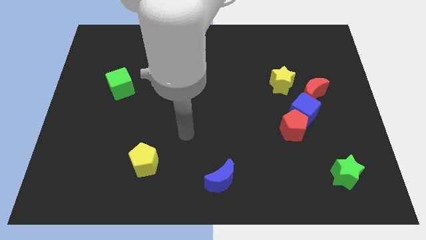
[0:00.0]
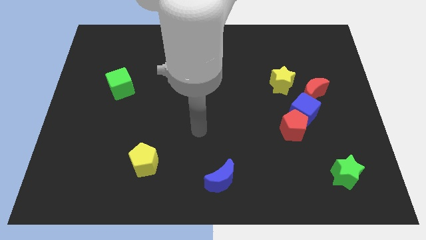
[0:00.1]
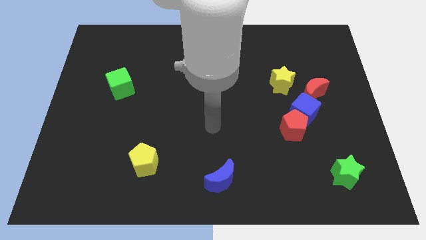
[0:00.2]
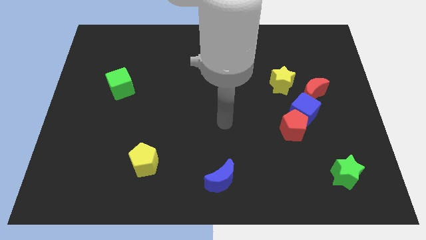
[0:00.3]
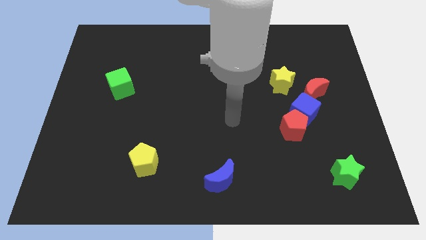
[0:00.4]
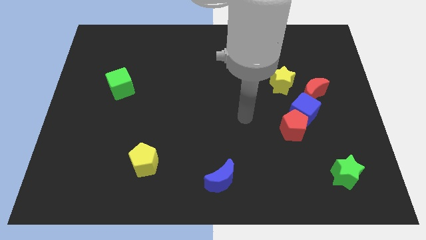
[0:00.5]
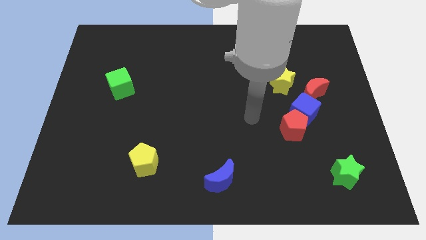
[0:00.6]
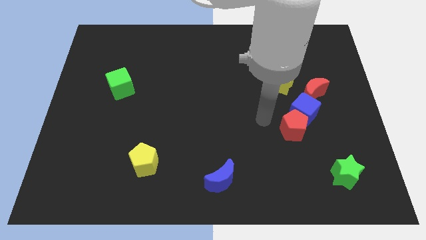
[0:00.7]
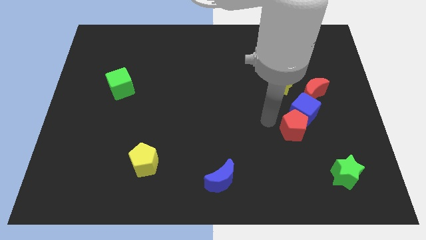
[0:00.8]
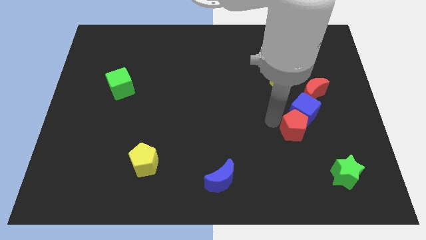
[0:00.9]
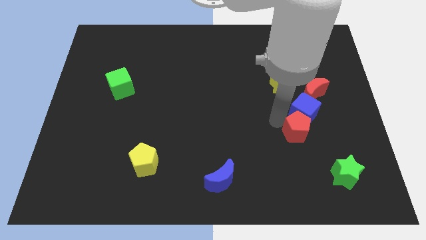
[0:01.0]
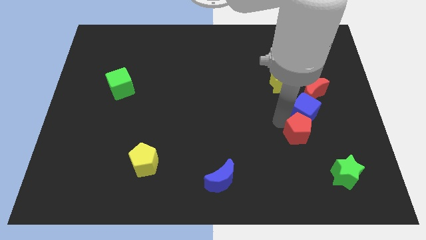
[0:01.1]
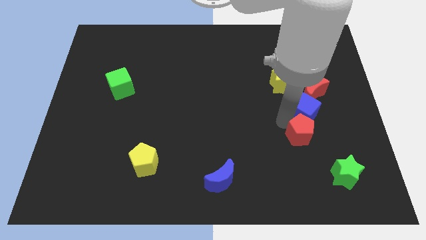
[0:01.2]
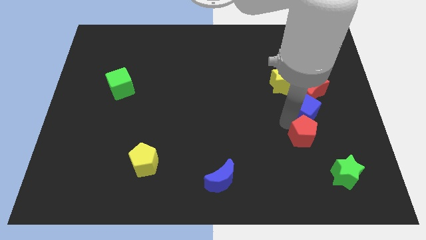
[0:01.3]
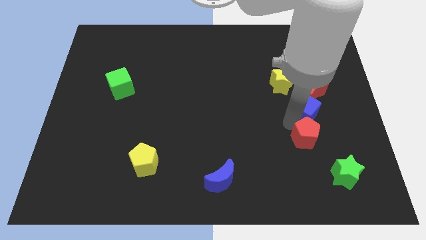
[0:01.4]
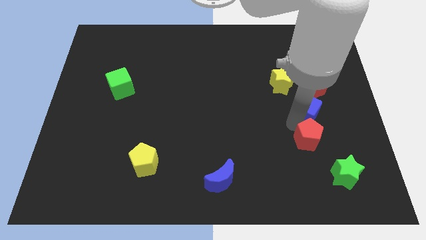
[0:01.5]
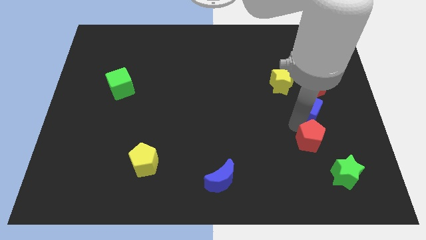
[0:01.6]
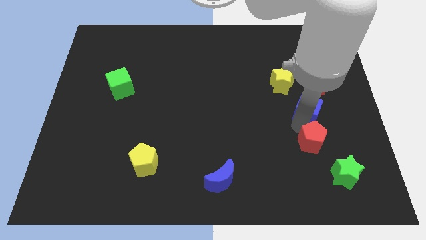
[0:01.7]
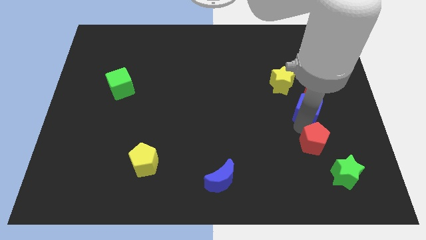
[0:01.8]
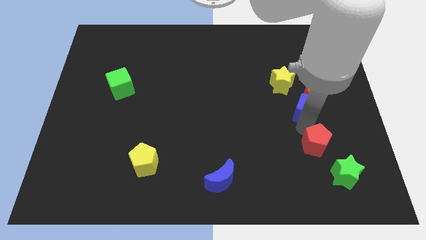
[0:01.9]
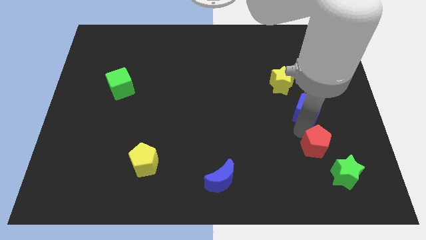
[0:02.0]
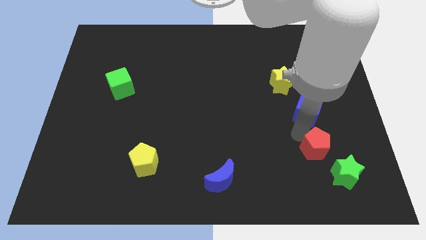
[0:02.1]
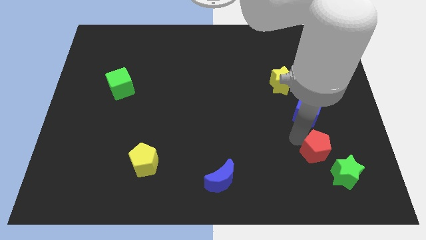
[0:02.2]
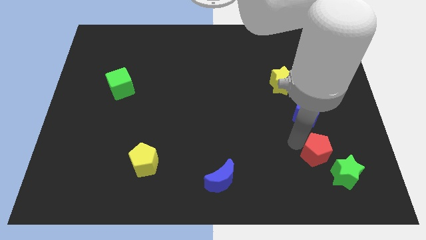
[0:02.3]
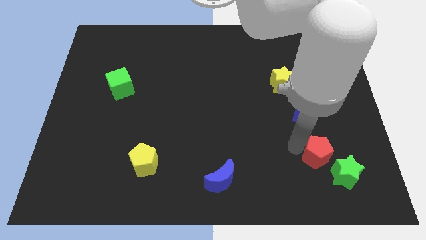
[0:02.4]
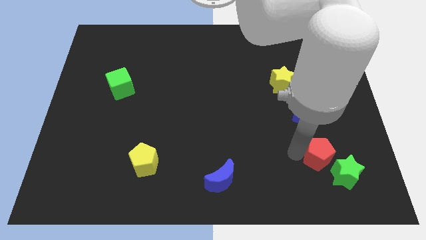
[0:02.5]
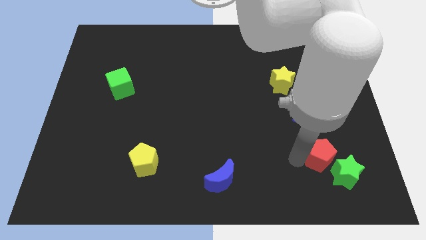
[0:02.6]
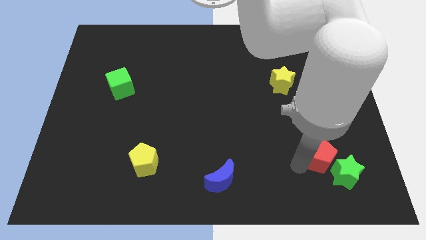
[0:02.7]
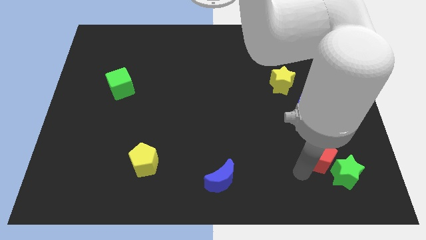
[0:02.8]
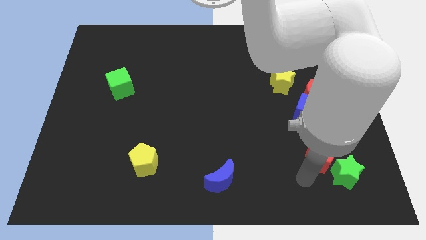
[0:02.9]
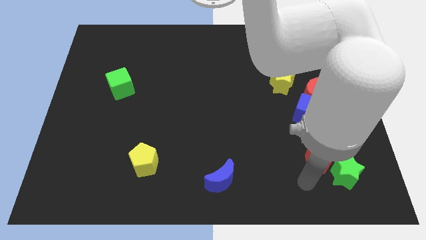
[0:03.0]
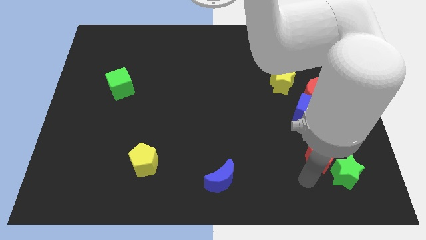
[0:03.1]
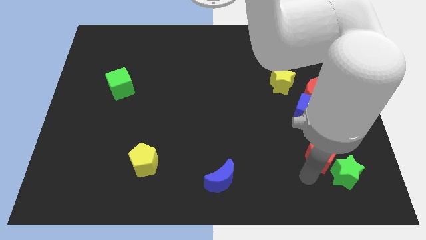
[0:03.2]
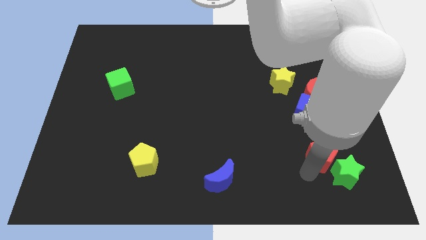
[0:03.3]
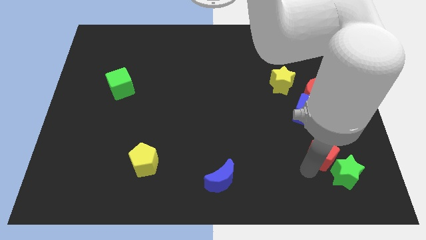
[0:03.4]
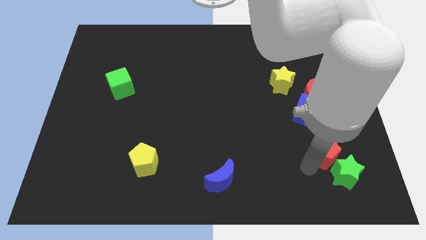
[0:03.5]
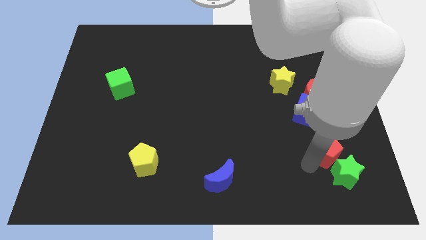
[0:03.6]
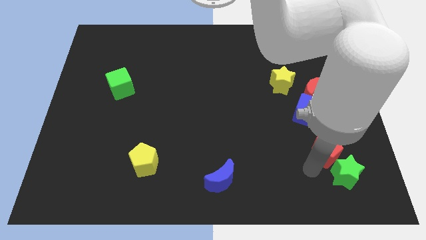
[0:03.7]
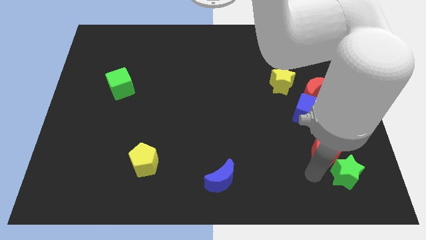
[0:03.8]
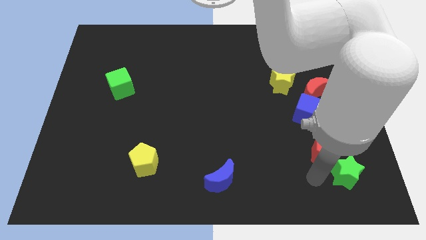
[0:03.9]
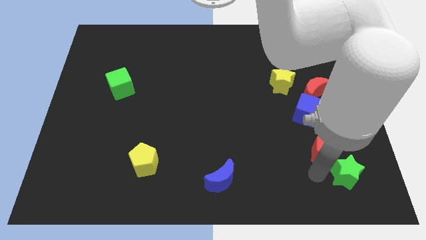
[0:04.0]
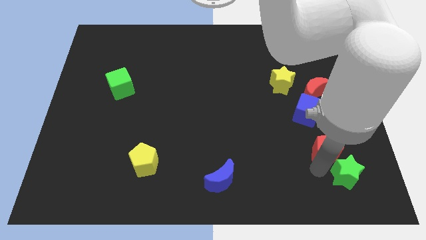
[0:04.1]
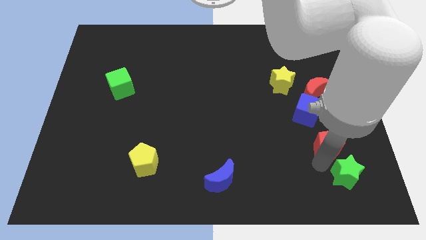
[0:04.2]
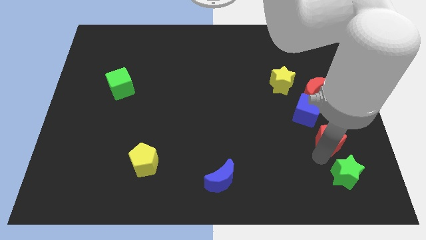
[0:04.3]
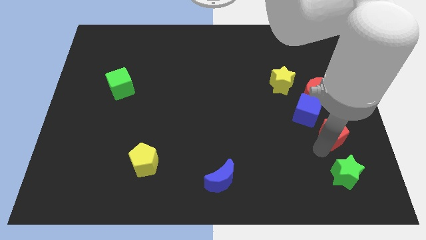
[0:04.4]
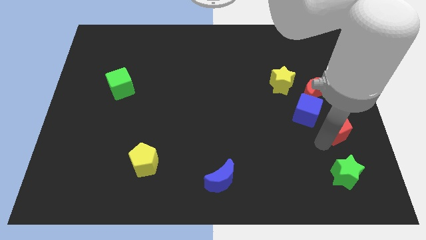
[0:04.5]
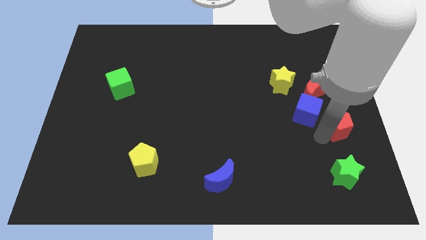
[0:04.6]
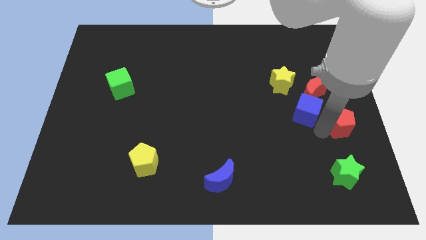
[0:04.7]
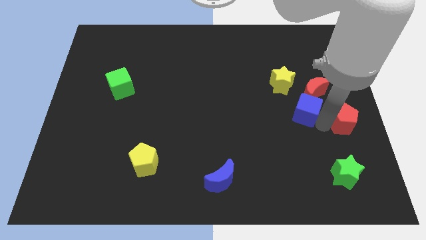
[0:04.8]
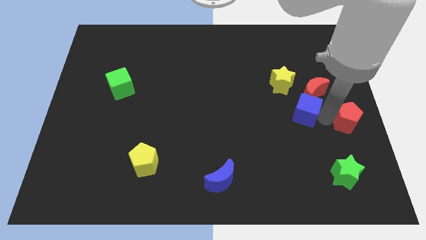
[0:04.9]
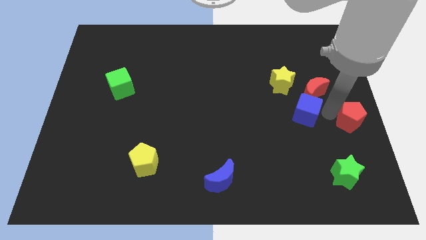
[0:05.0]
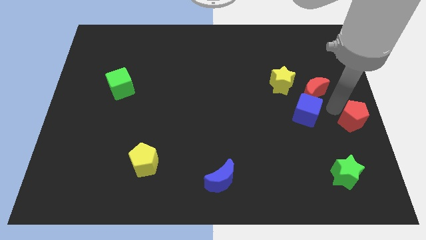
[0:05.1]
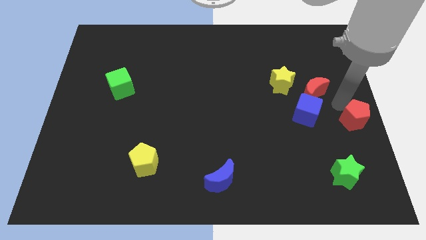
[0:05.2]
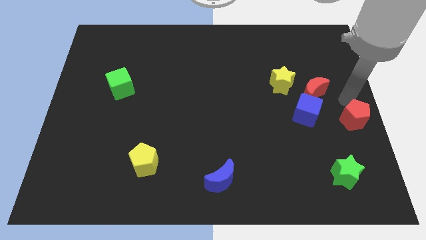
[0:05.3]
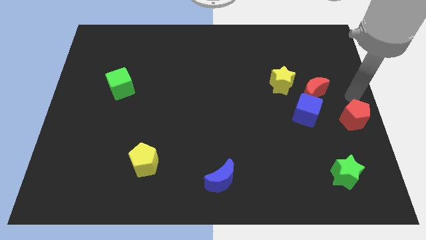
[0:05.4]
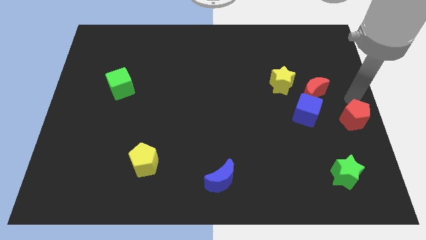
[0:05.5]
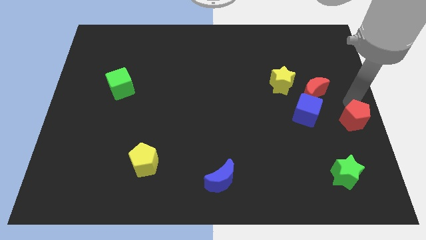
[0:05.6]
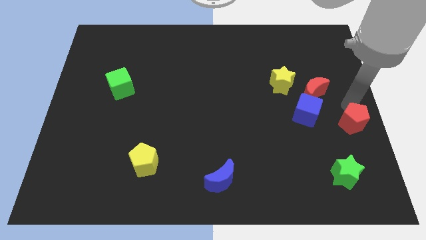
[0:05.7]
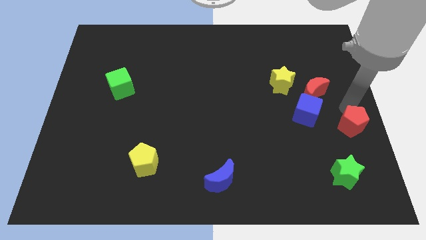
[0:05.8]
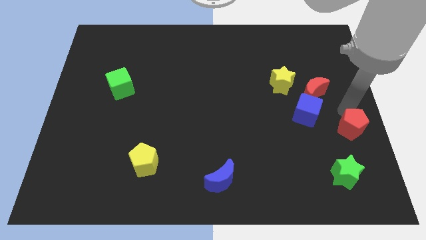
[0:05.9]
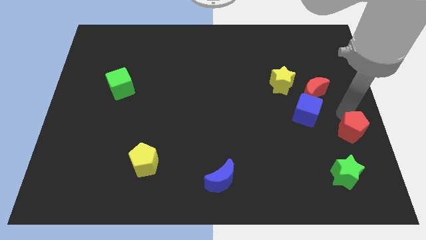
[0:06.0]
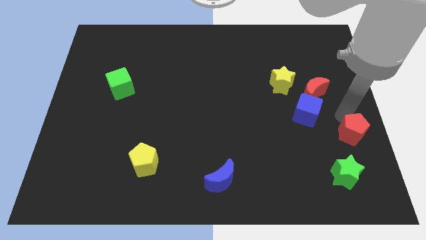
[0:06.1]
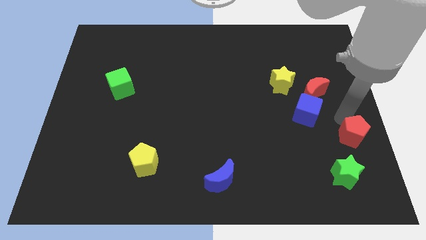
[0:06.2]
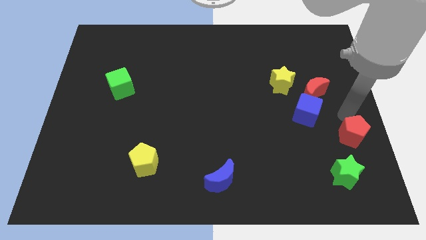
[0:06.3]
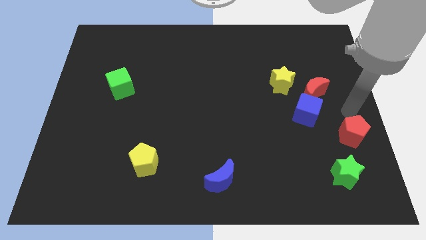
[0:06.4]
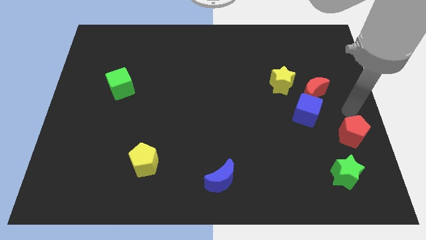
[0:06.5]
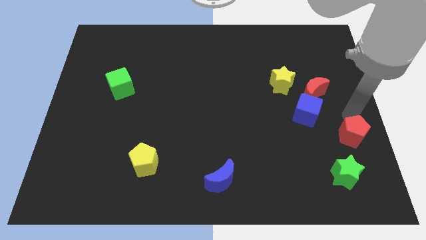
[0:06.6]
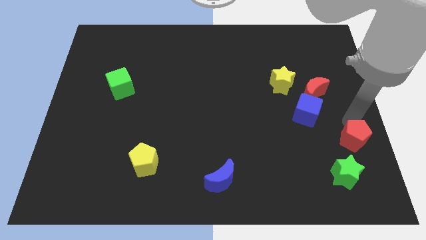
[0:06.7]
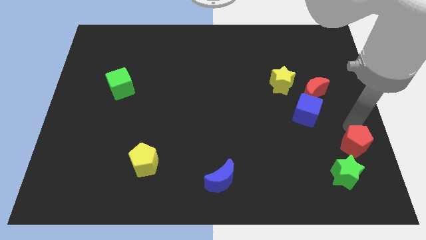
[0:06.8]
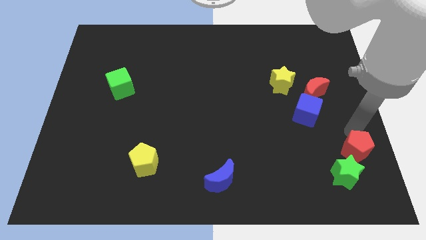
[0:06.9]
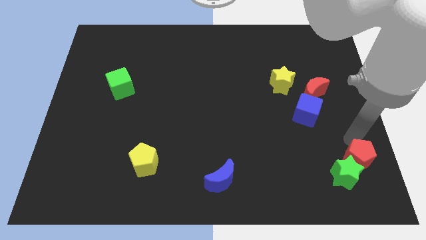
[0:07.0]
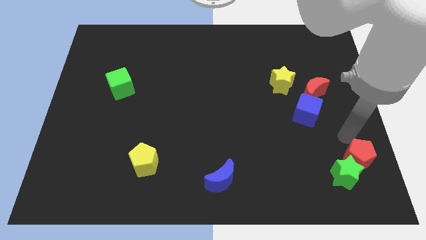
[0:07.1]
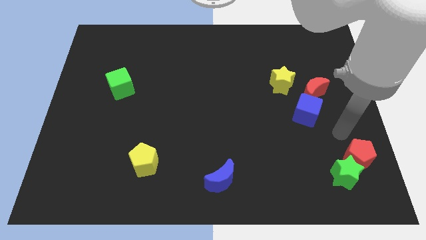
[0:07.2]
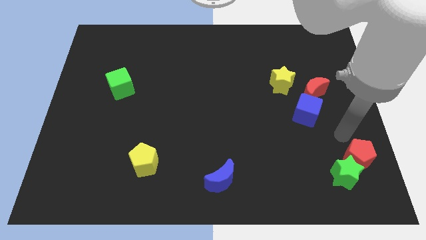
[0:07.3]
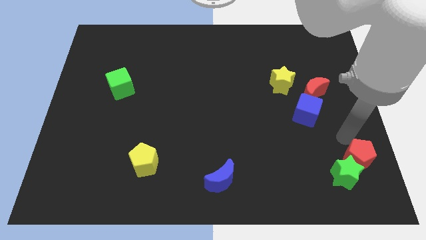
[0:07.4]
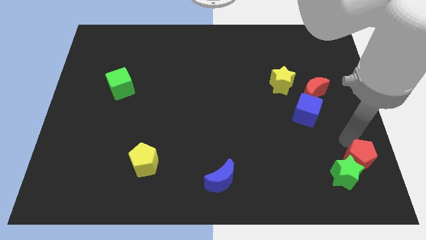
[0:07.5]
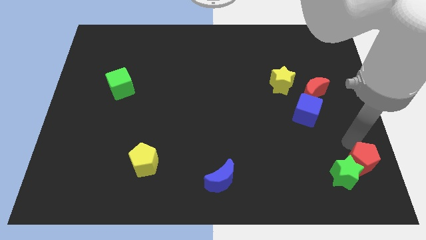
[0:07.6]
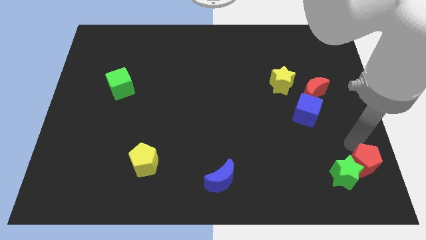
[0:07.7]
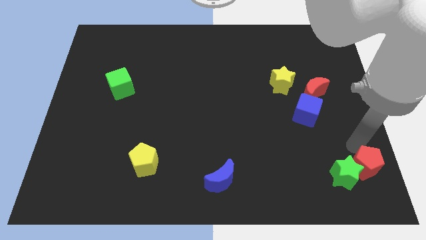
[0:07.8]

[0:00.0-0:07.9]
put the red pentagon to the bottom right of the board
